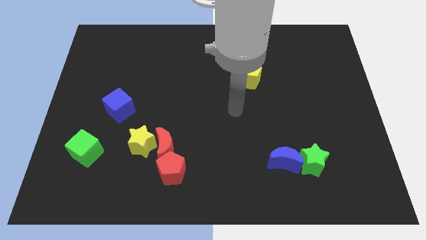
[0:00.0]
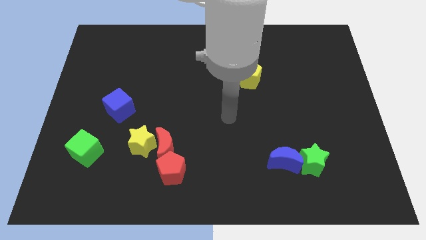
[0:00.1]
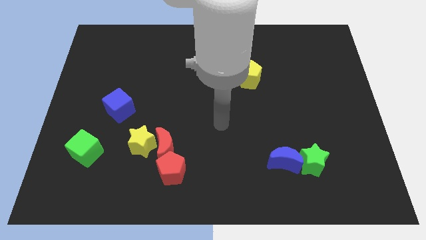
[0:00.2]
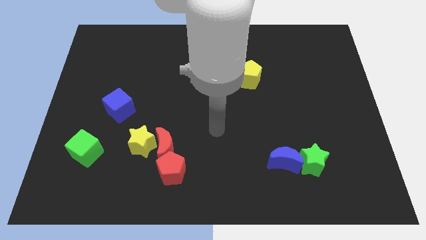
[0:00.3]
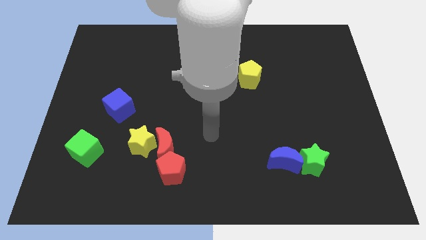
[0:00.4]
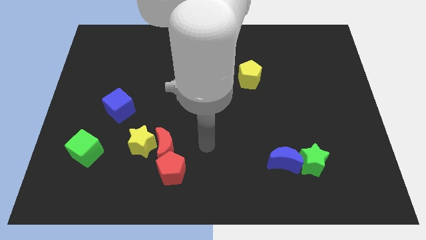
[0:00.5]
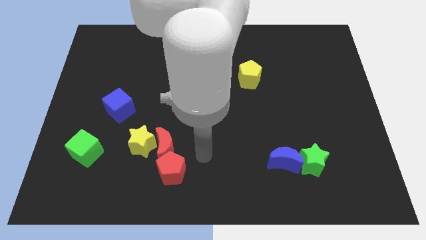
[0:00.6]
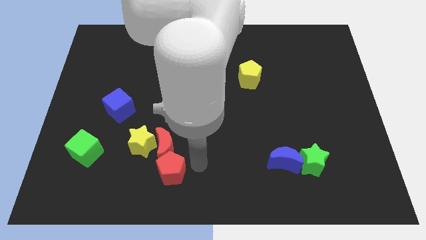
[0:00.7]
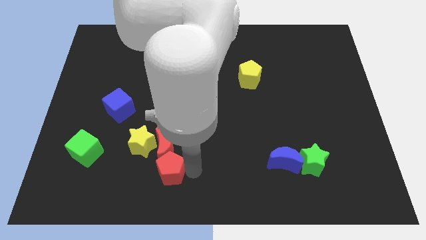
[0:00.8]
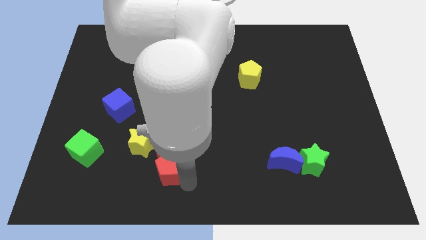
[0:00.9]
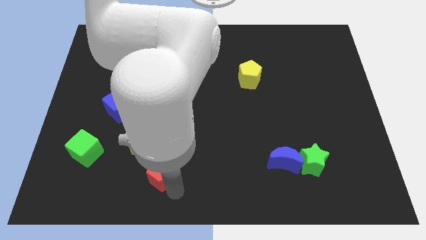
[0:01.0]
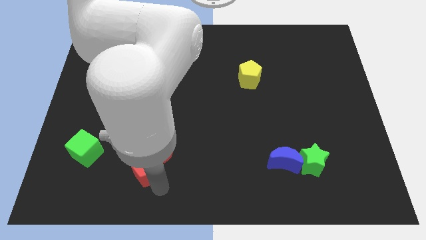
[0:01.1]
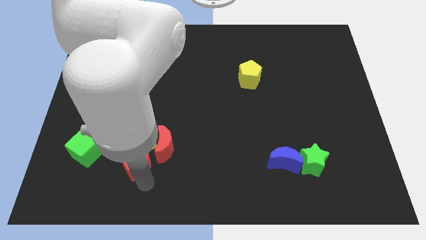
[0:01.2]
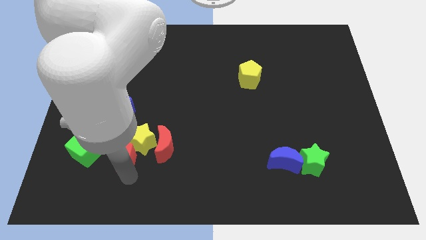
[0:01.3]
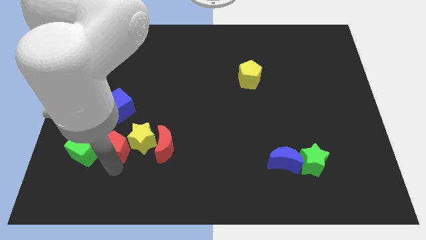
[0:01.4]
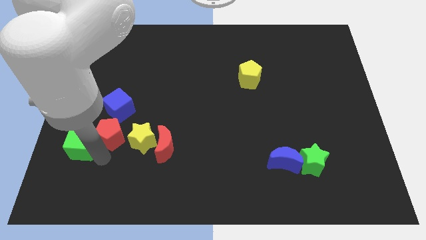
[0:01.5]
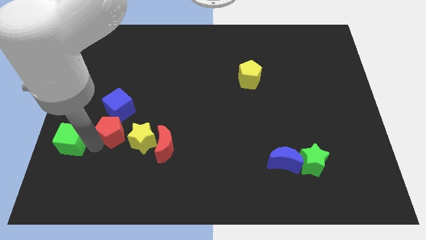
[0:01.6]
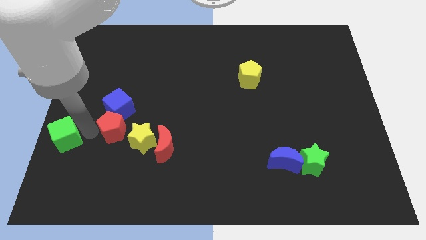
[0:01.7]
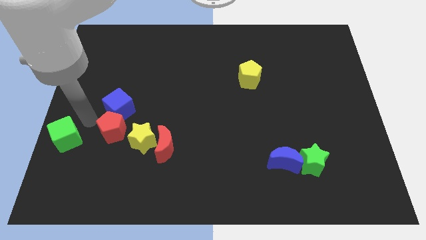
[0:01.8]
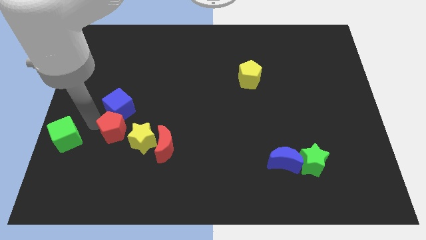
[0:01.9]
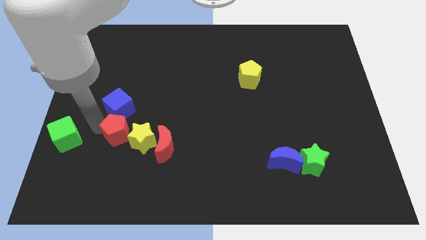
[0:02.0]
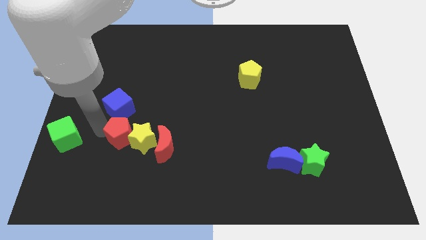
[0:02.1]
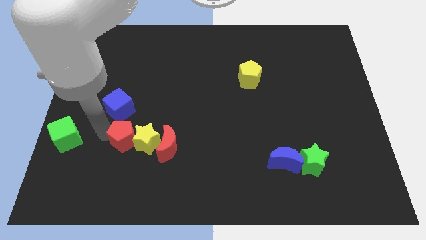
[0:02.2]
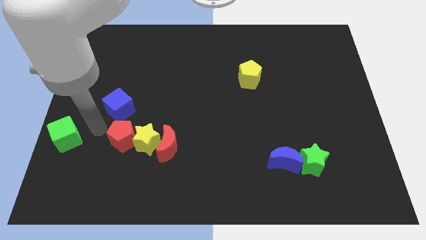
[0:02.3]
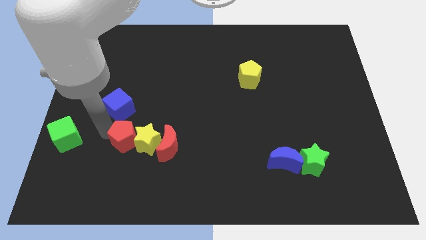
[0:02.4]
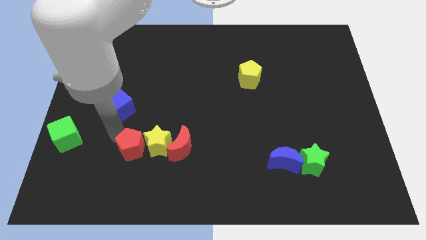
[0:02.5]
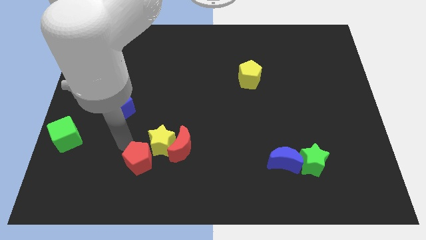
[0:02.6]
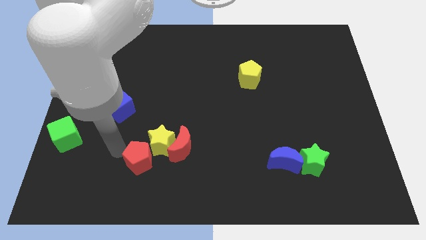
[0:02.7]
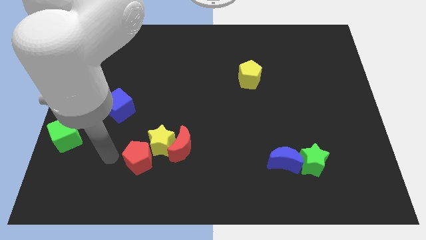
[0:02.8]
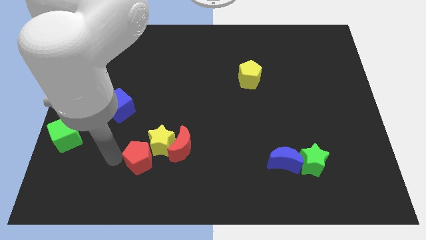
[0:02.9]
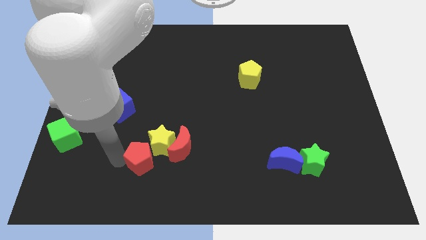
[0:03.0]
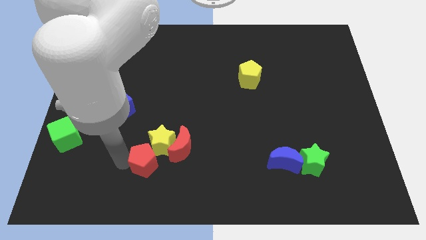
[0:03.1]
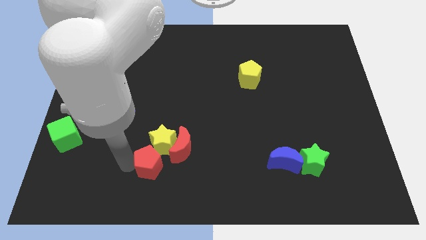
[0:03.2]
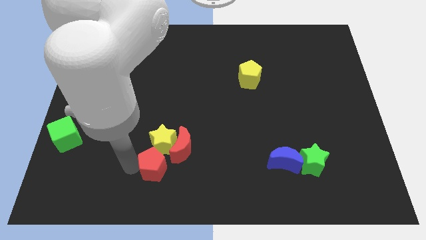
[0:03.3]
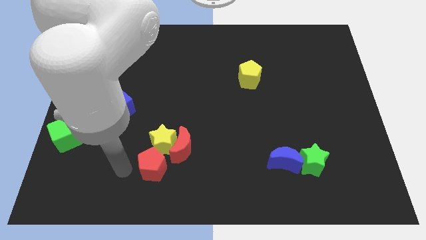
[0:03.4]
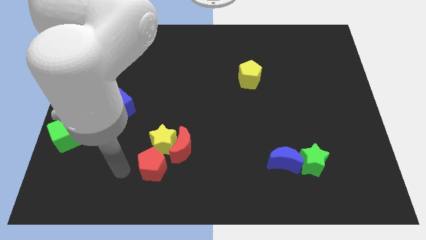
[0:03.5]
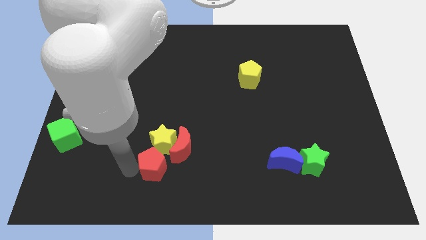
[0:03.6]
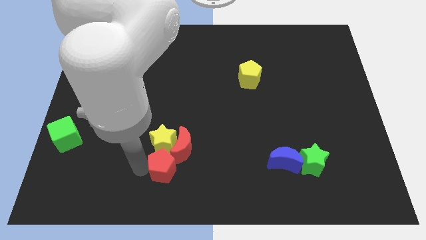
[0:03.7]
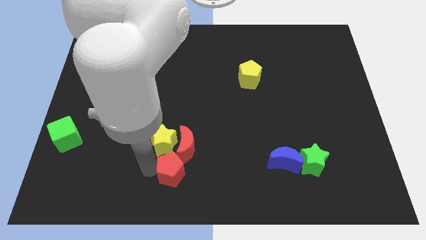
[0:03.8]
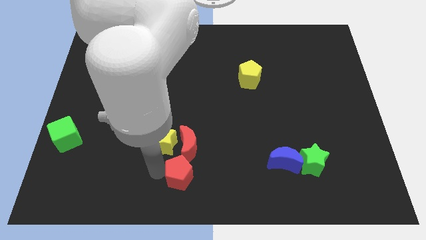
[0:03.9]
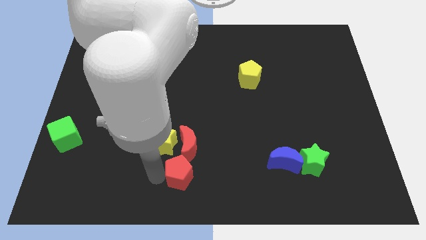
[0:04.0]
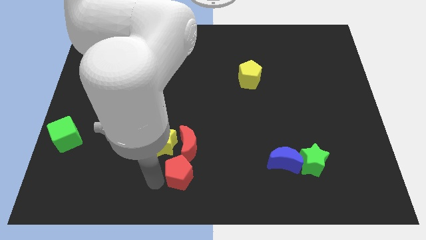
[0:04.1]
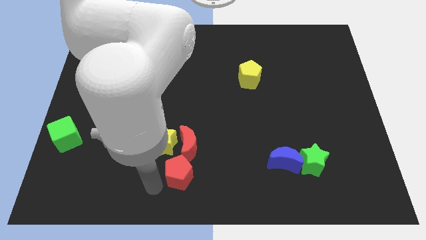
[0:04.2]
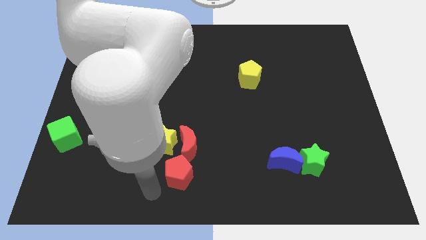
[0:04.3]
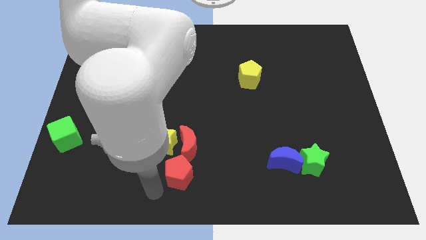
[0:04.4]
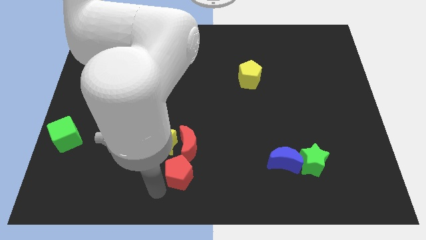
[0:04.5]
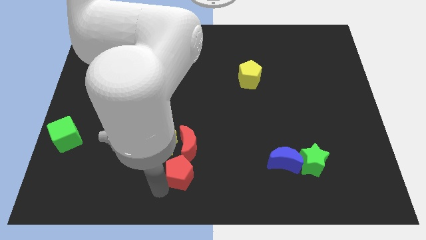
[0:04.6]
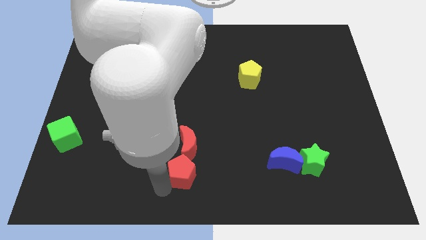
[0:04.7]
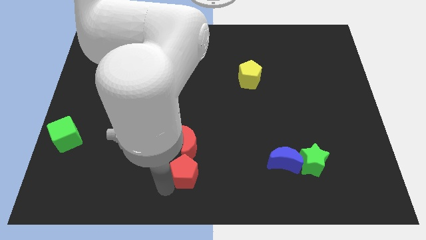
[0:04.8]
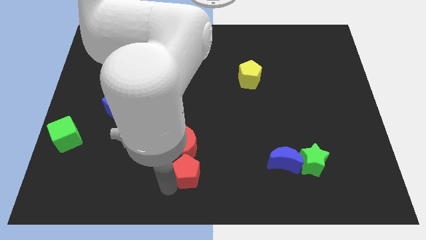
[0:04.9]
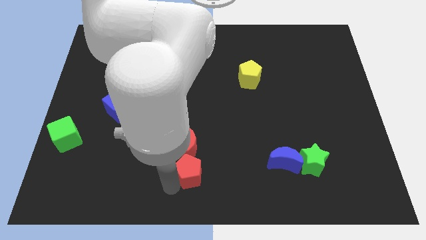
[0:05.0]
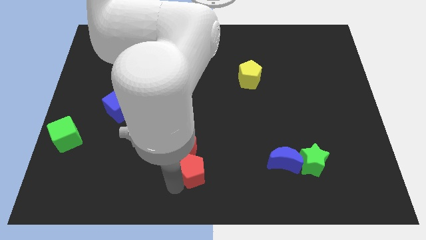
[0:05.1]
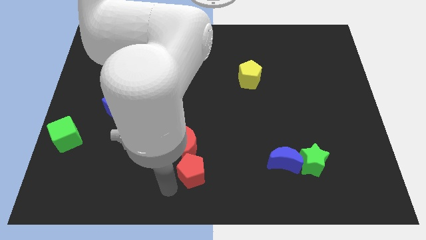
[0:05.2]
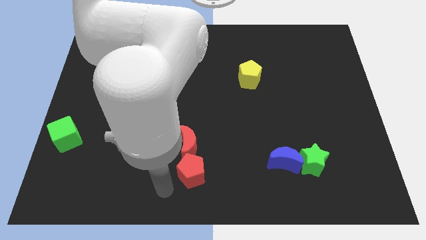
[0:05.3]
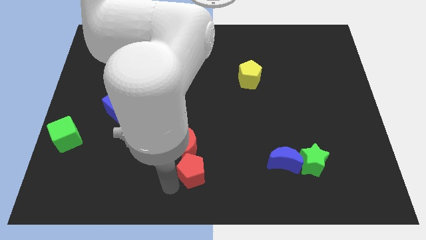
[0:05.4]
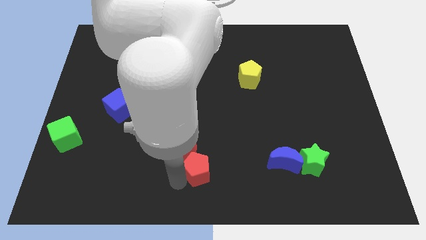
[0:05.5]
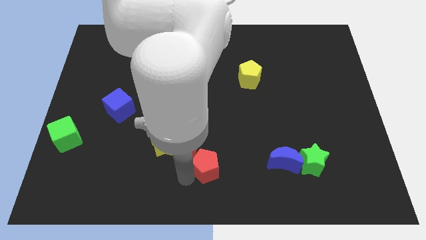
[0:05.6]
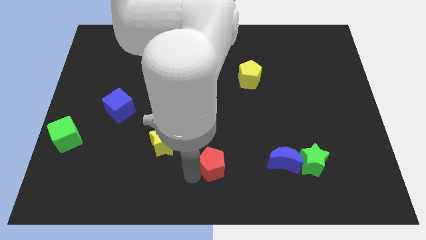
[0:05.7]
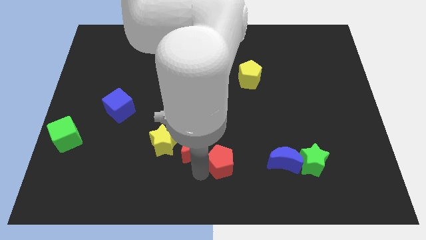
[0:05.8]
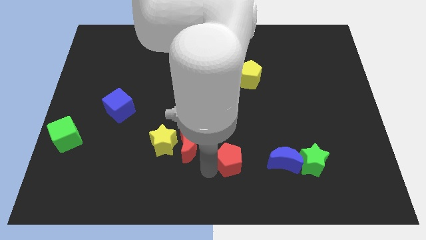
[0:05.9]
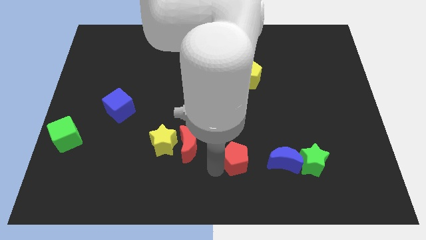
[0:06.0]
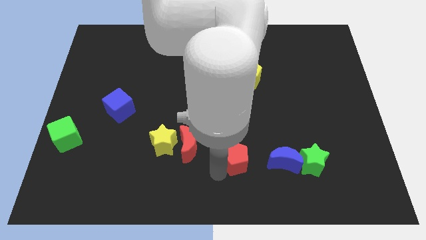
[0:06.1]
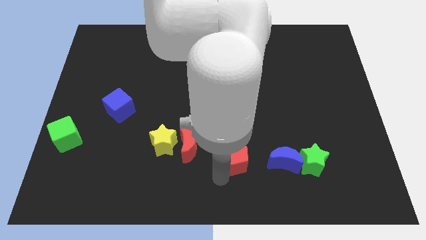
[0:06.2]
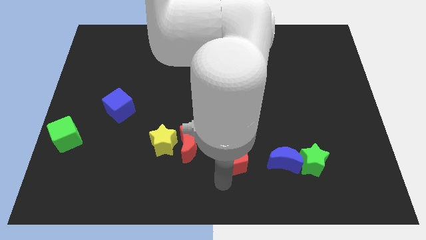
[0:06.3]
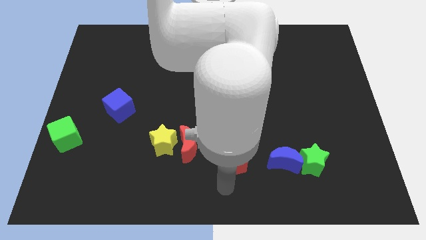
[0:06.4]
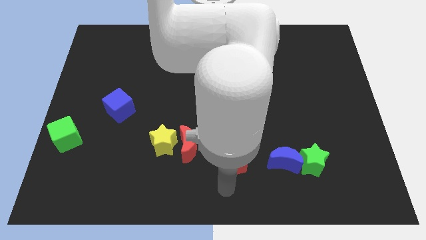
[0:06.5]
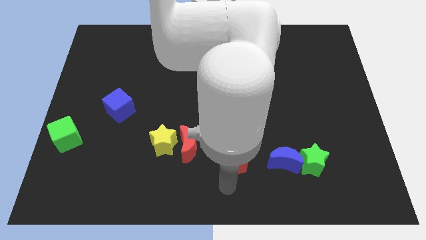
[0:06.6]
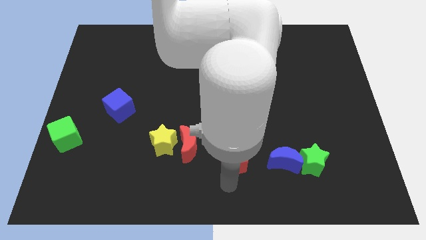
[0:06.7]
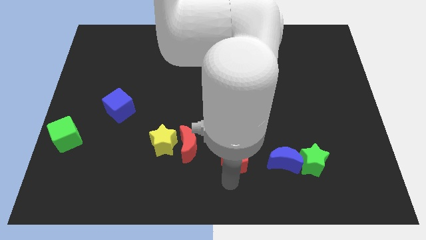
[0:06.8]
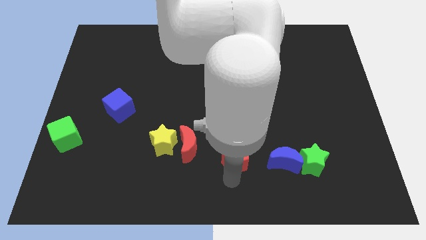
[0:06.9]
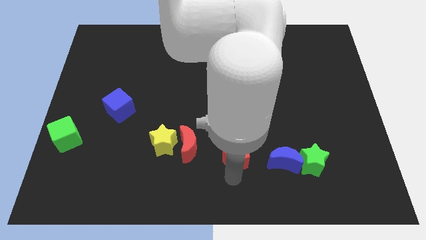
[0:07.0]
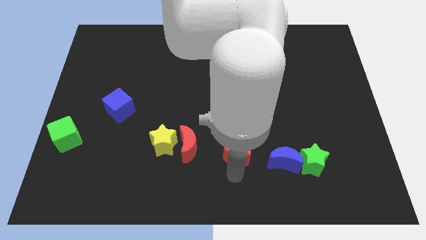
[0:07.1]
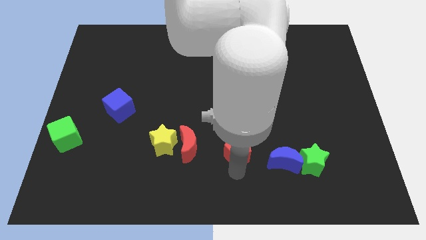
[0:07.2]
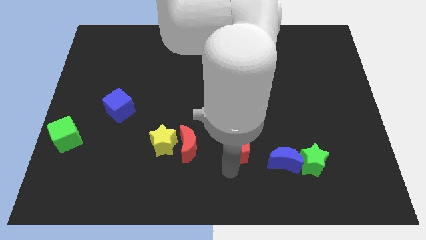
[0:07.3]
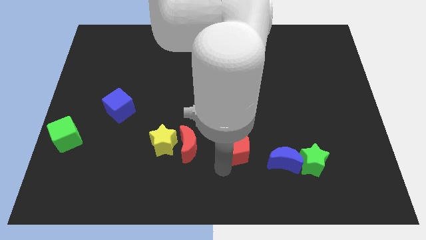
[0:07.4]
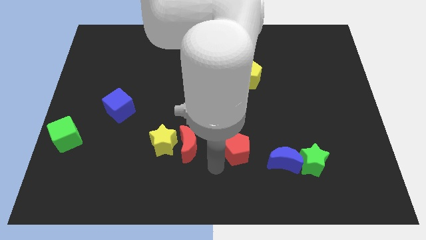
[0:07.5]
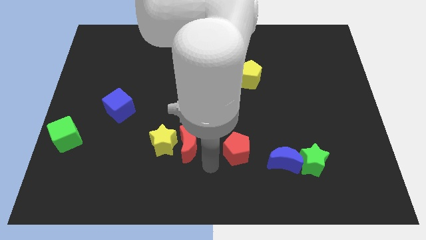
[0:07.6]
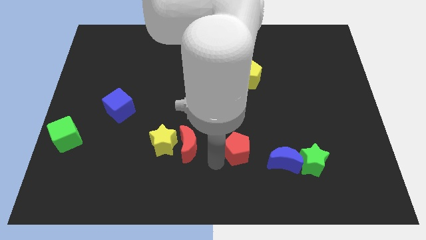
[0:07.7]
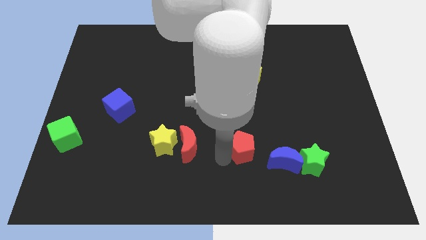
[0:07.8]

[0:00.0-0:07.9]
push the red pentagon diagonally up and to the left of the blue moon

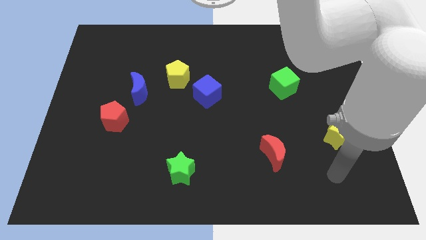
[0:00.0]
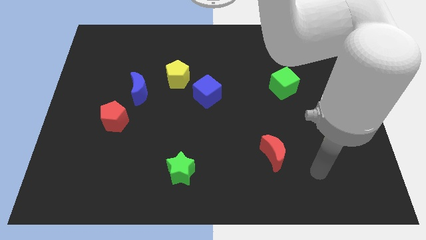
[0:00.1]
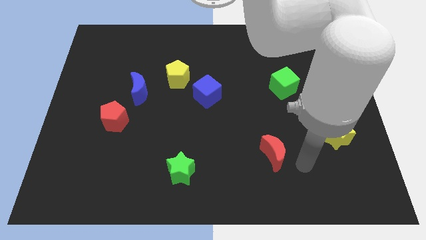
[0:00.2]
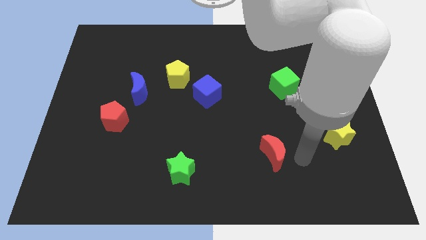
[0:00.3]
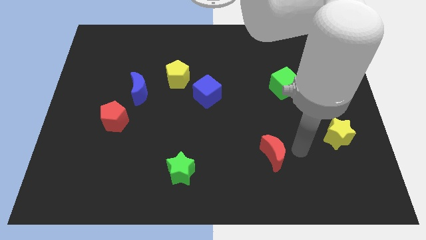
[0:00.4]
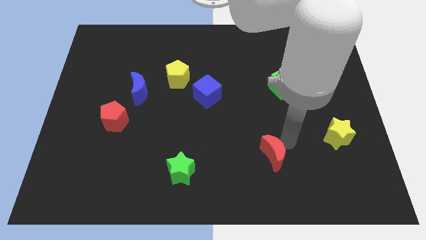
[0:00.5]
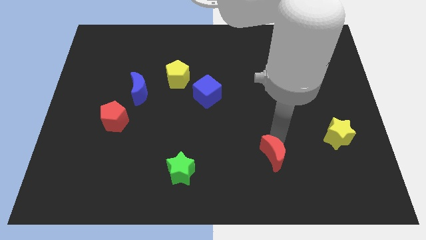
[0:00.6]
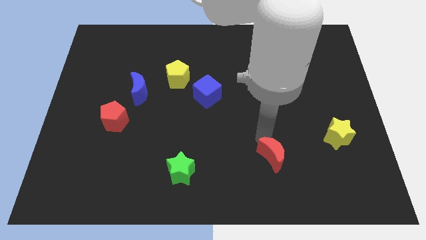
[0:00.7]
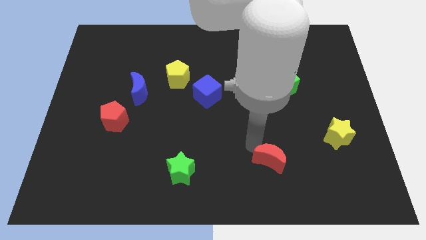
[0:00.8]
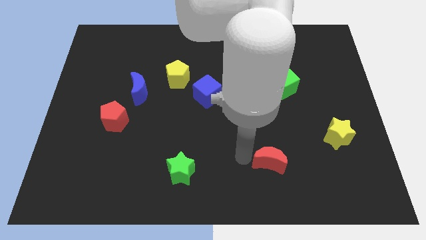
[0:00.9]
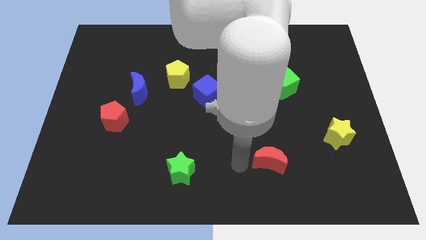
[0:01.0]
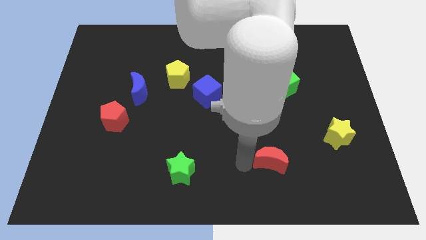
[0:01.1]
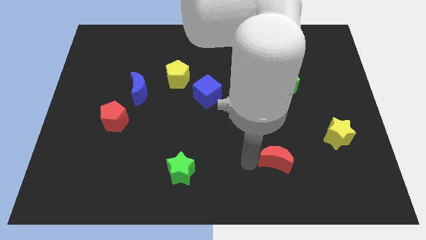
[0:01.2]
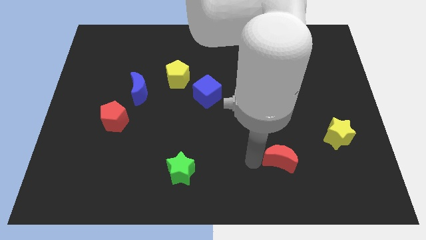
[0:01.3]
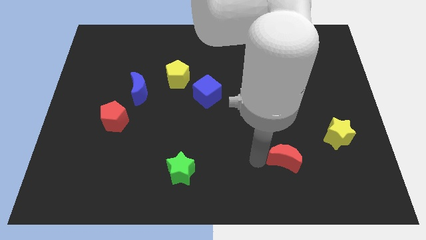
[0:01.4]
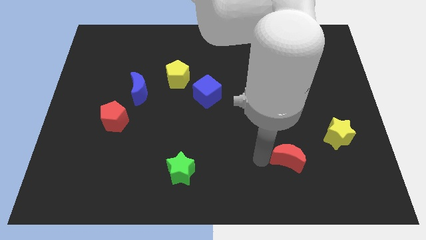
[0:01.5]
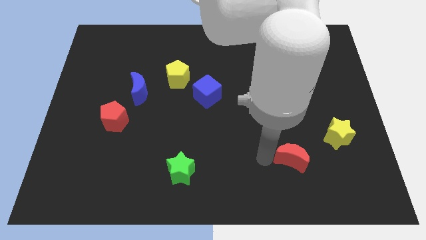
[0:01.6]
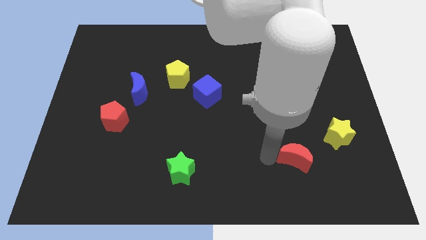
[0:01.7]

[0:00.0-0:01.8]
move the red moon to the bottom left of the yellow star
